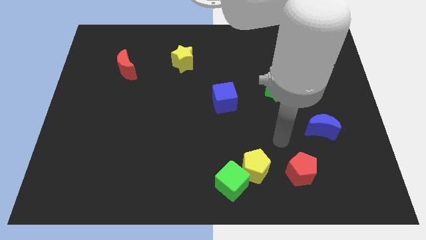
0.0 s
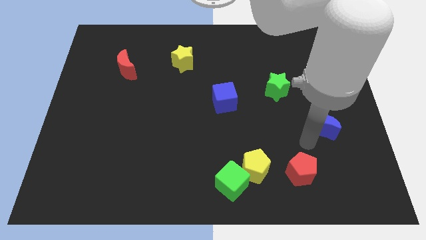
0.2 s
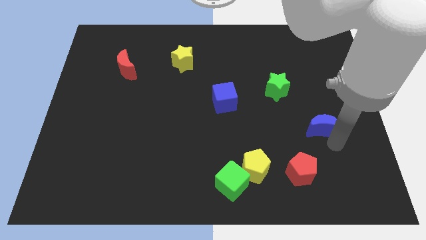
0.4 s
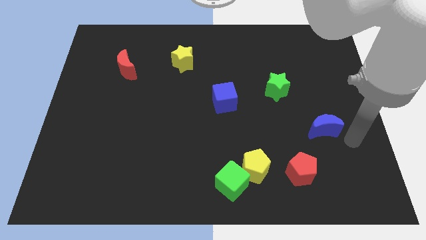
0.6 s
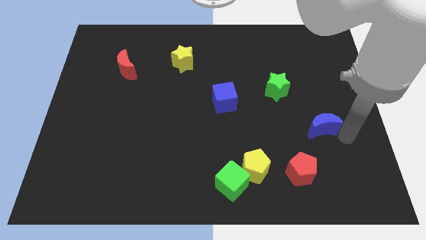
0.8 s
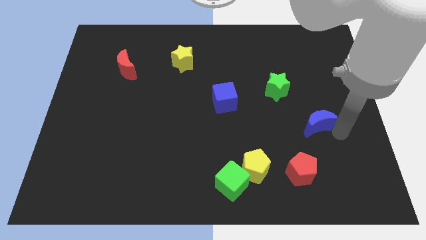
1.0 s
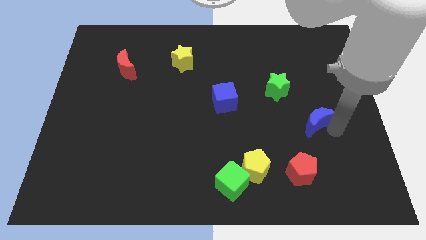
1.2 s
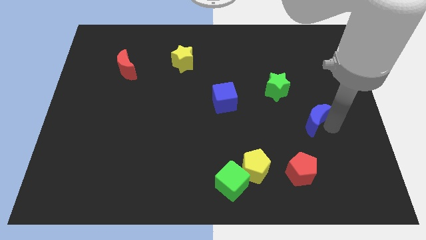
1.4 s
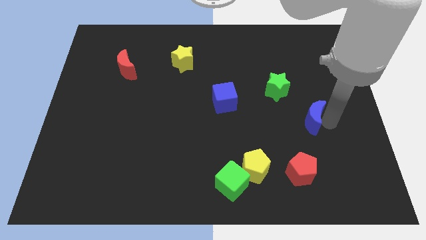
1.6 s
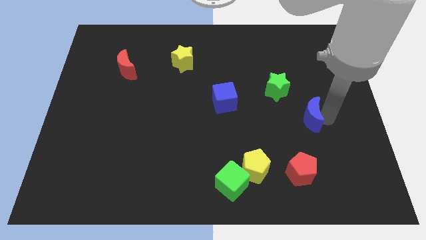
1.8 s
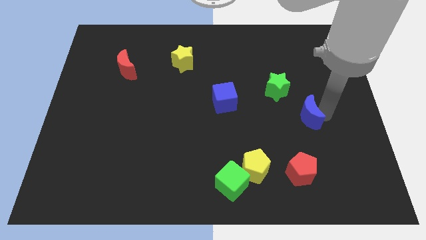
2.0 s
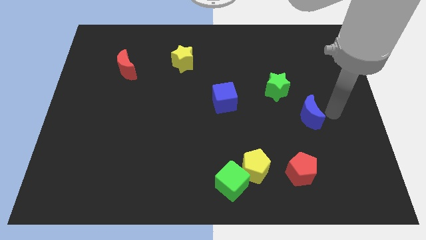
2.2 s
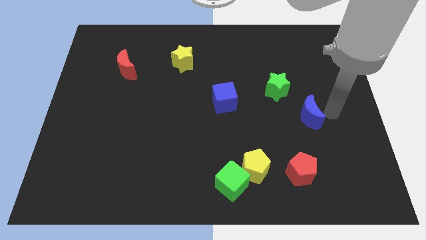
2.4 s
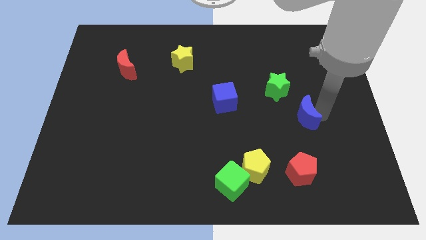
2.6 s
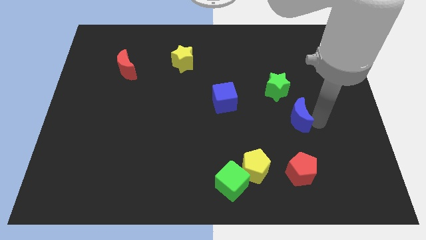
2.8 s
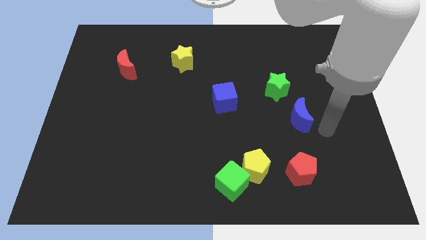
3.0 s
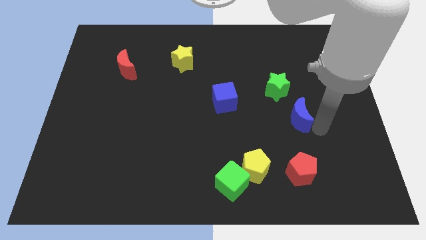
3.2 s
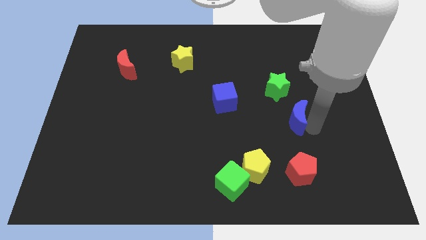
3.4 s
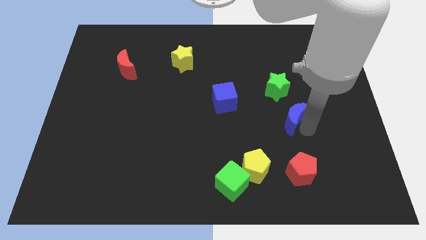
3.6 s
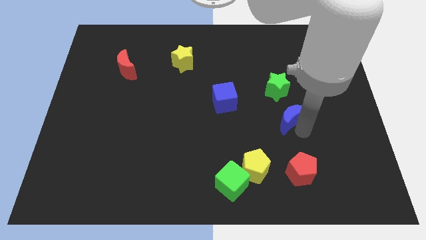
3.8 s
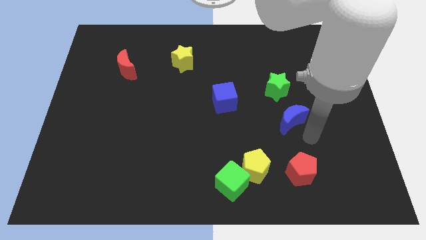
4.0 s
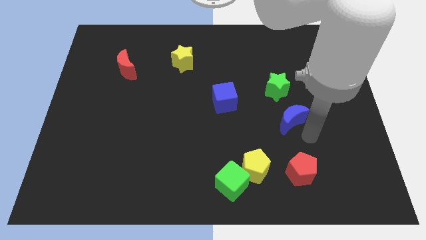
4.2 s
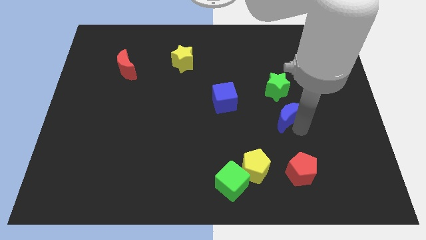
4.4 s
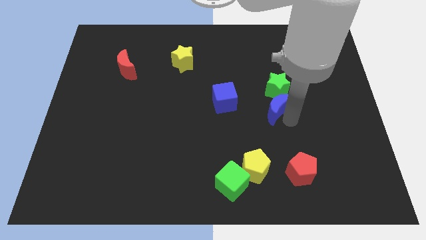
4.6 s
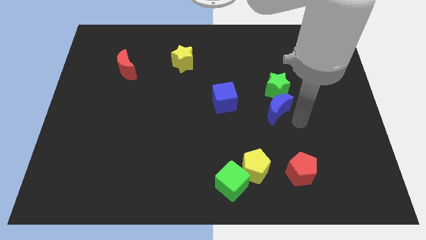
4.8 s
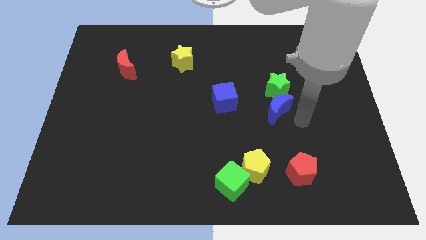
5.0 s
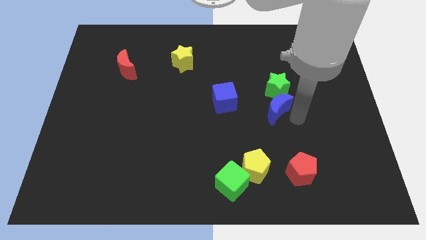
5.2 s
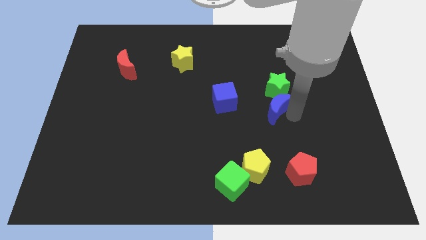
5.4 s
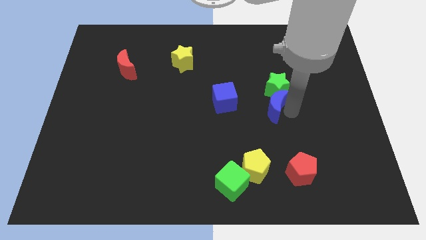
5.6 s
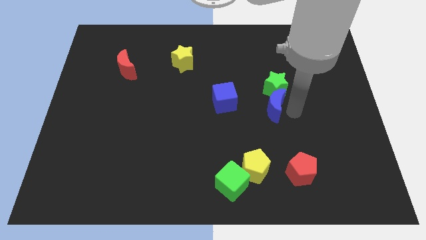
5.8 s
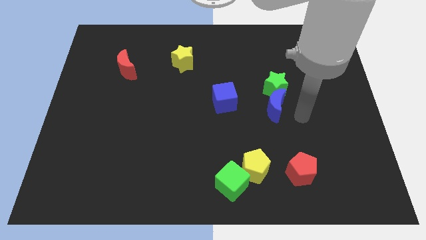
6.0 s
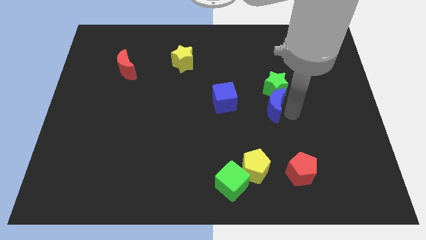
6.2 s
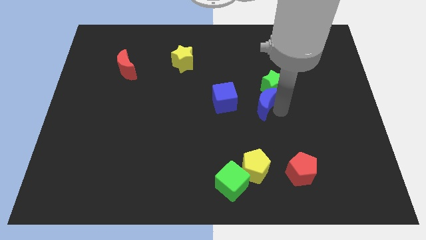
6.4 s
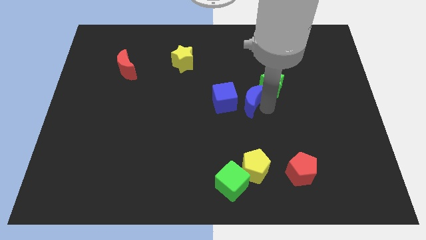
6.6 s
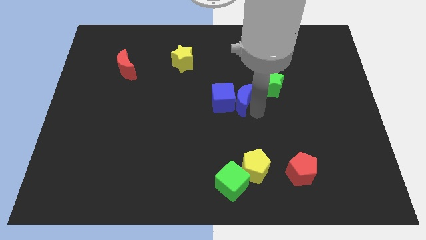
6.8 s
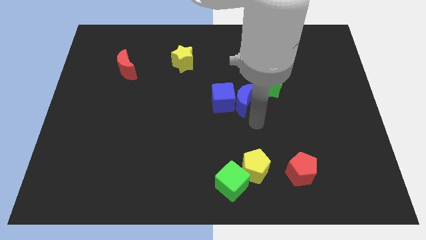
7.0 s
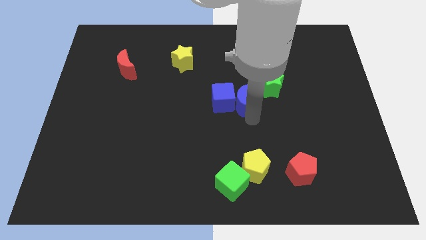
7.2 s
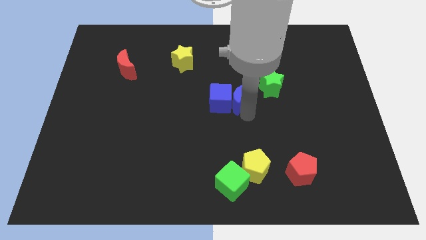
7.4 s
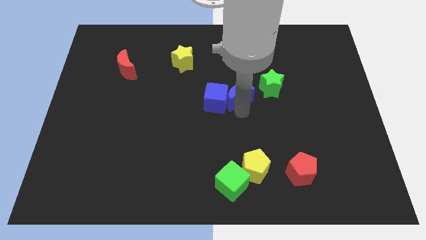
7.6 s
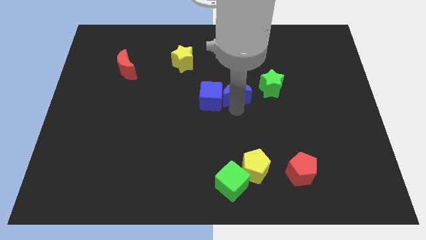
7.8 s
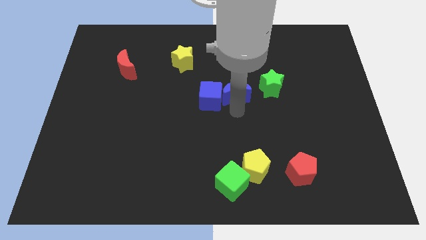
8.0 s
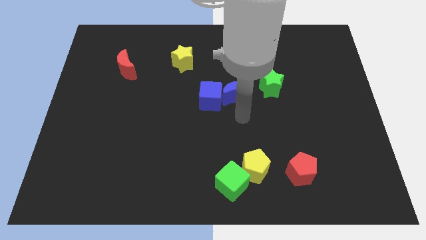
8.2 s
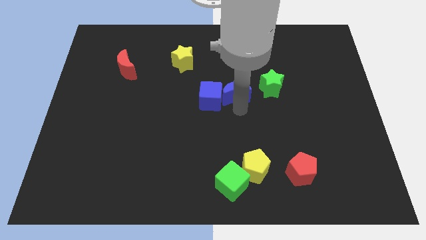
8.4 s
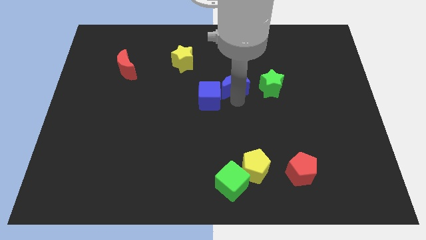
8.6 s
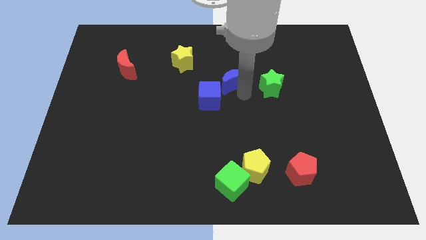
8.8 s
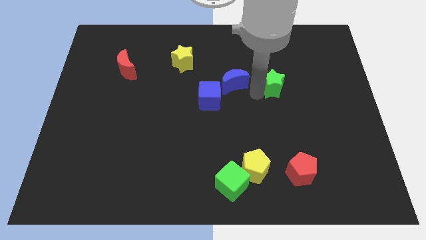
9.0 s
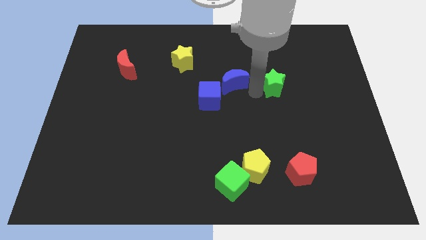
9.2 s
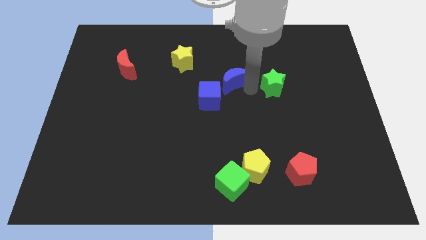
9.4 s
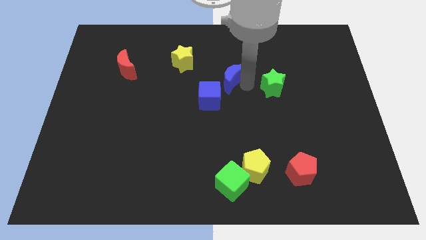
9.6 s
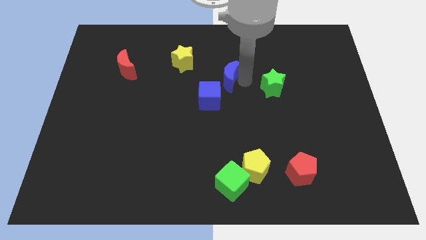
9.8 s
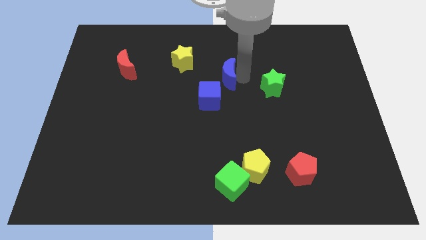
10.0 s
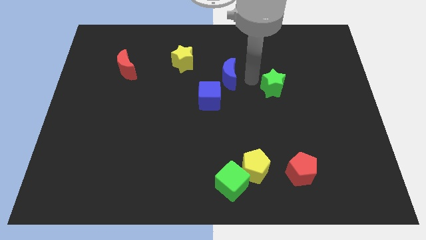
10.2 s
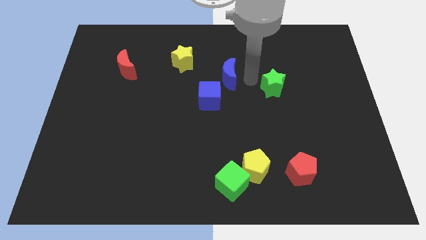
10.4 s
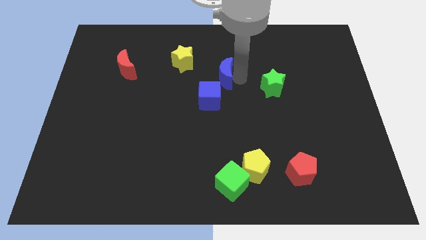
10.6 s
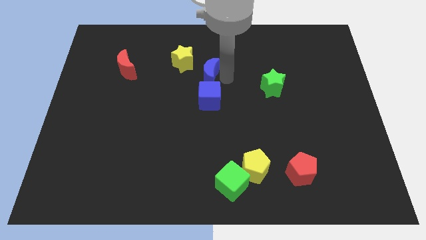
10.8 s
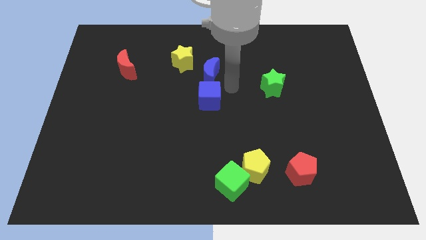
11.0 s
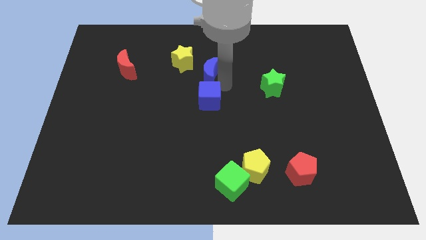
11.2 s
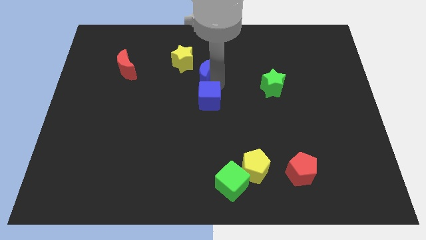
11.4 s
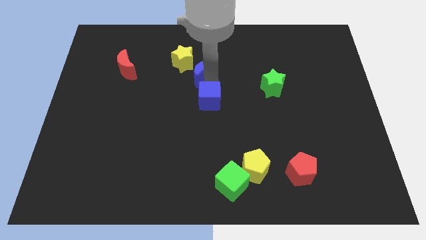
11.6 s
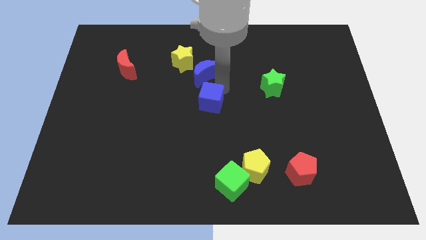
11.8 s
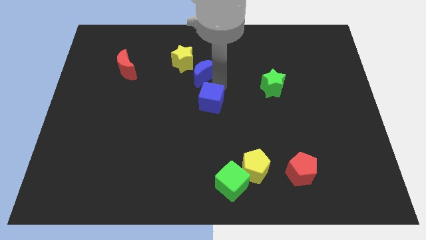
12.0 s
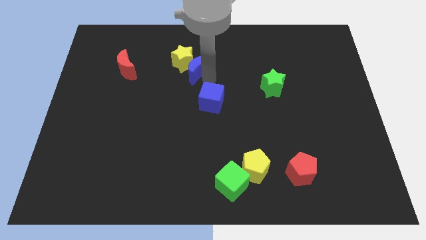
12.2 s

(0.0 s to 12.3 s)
put the blue moon next to the yellow star

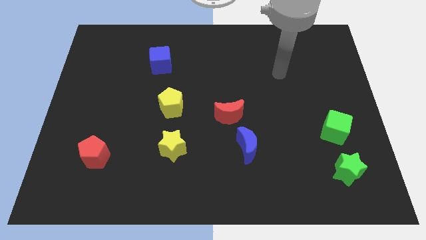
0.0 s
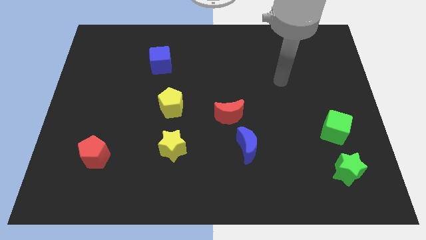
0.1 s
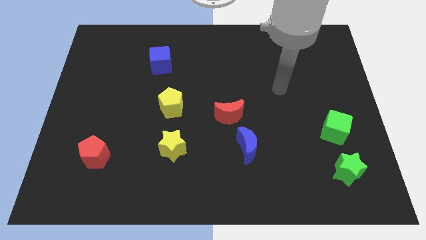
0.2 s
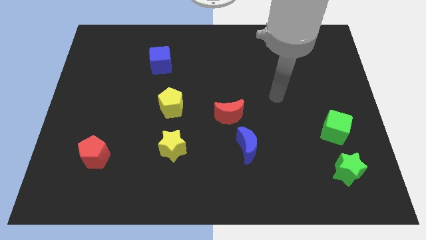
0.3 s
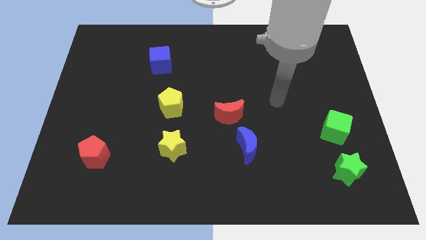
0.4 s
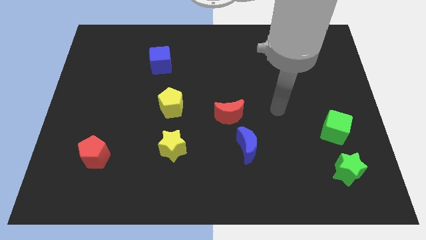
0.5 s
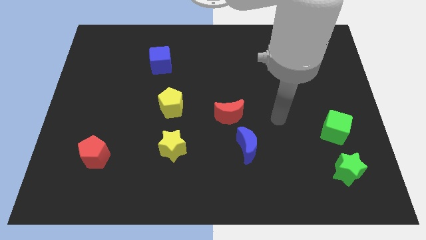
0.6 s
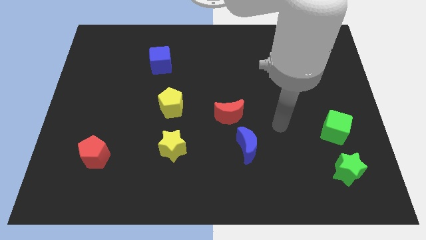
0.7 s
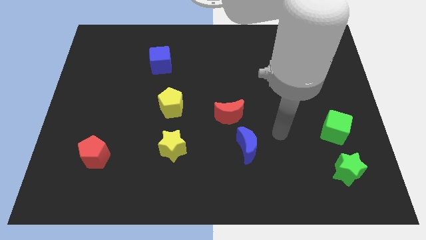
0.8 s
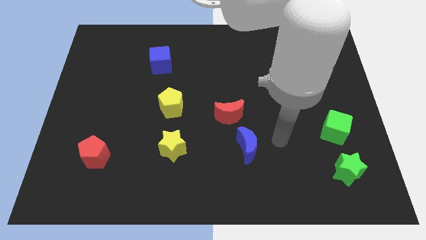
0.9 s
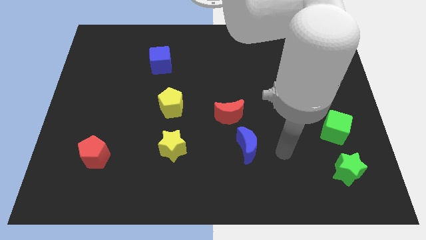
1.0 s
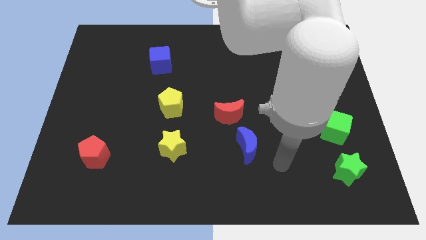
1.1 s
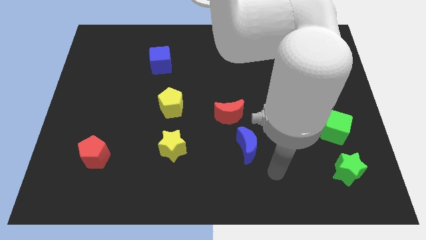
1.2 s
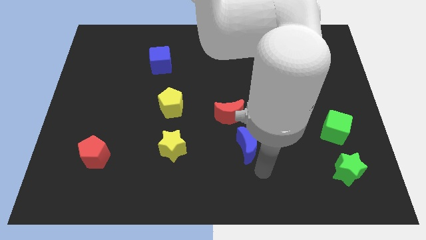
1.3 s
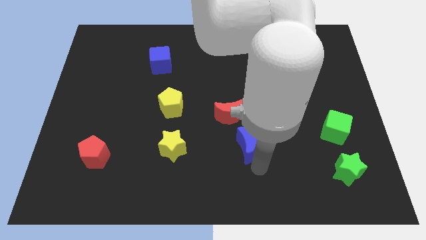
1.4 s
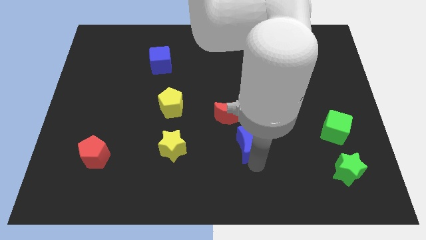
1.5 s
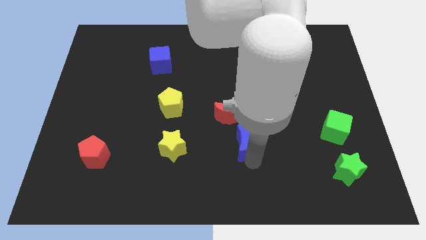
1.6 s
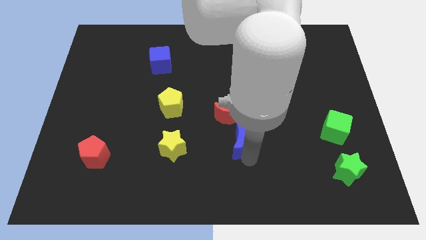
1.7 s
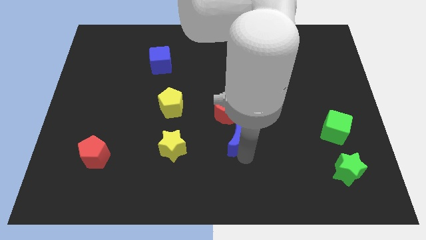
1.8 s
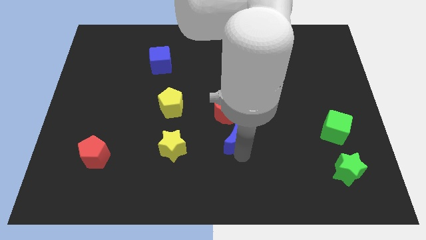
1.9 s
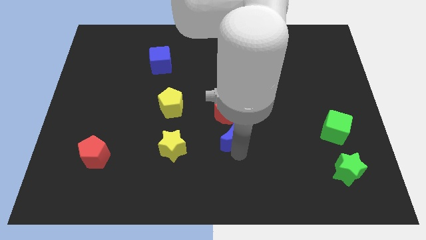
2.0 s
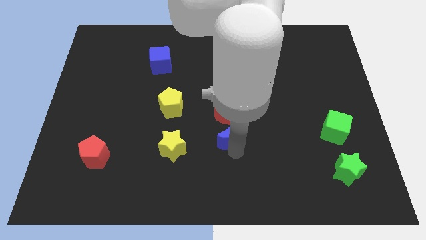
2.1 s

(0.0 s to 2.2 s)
push the blue moon next to the red moon
